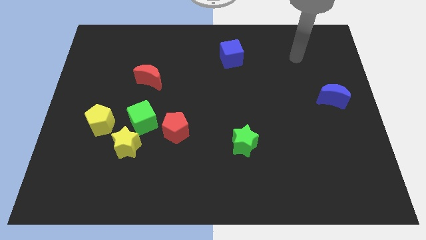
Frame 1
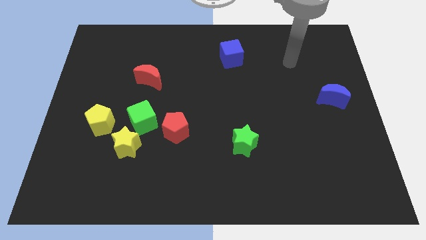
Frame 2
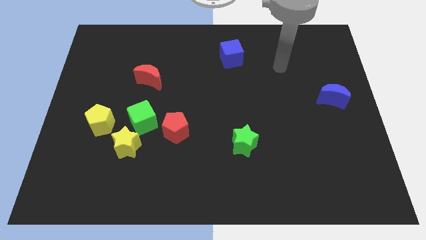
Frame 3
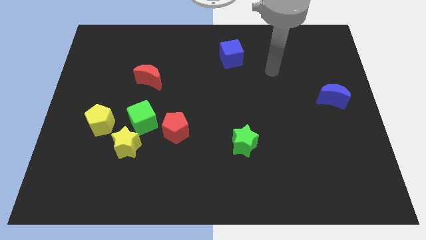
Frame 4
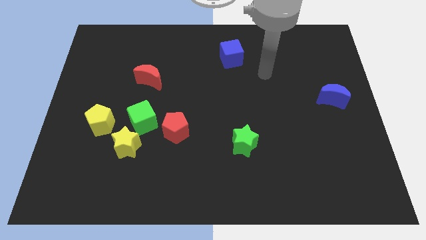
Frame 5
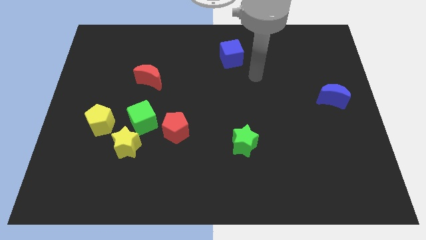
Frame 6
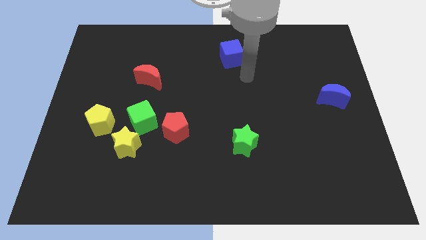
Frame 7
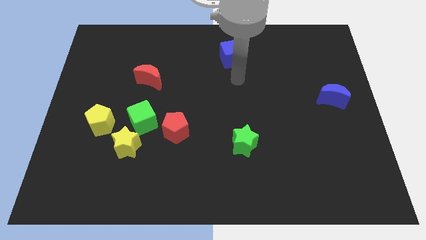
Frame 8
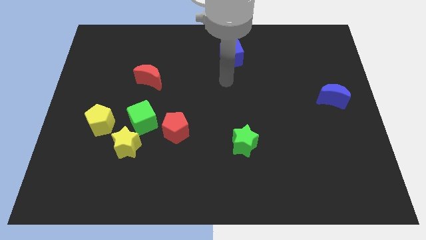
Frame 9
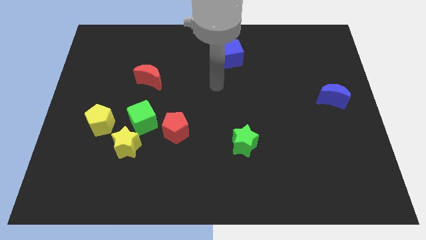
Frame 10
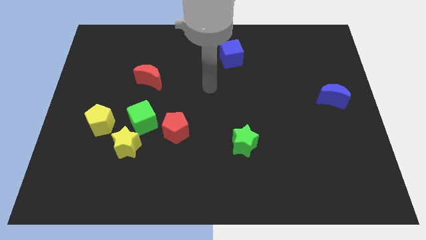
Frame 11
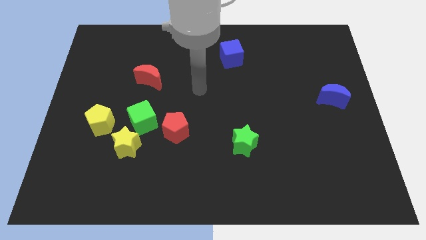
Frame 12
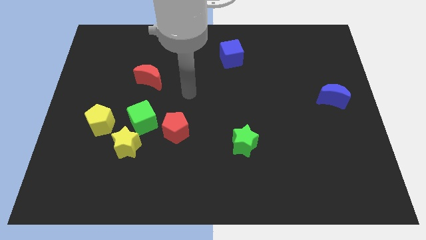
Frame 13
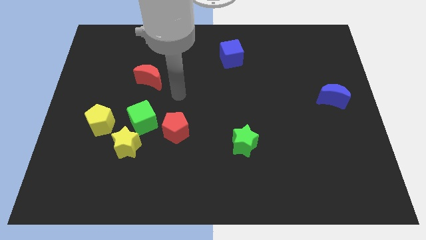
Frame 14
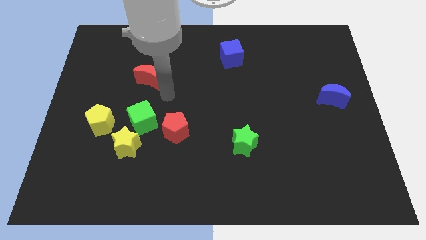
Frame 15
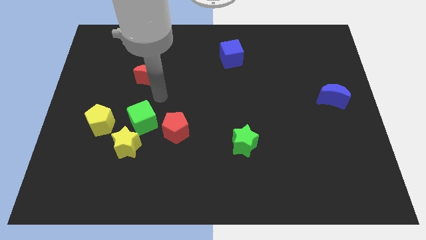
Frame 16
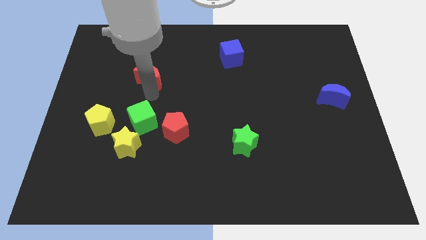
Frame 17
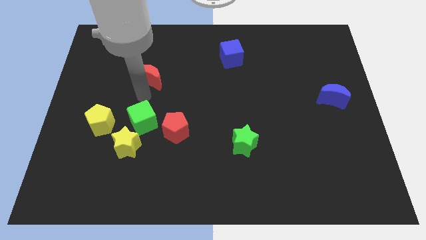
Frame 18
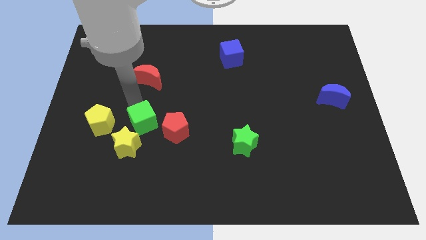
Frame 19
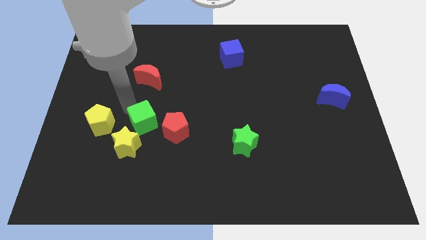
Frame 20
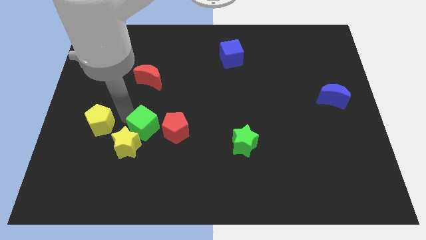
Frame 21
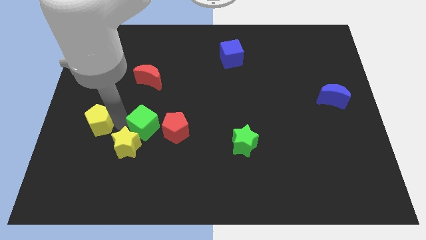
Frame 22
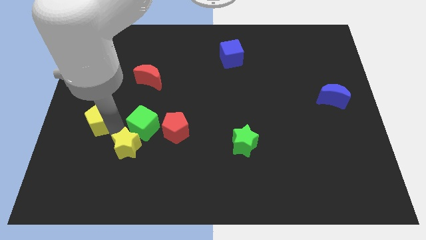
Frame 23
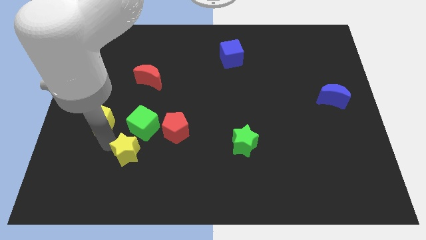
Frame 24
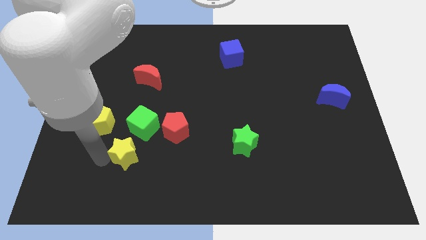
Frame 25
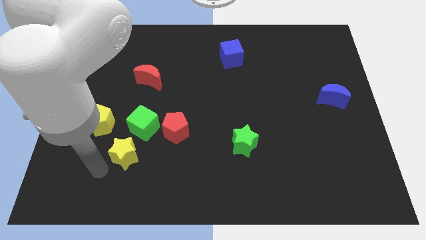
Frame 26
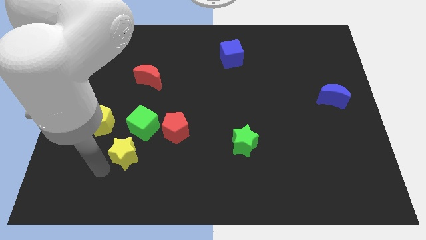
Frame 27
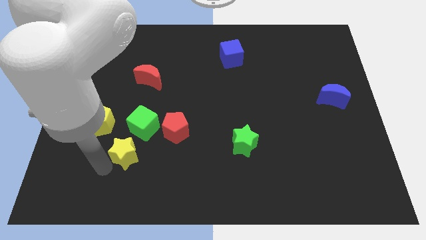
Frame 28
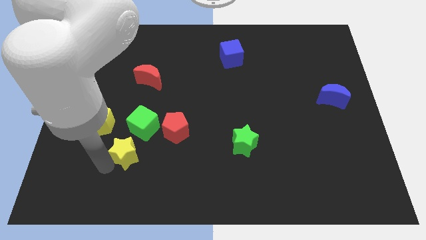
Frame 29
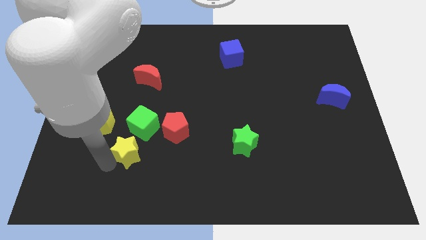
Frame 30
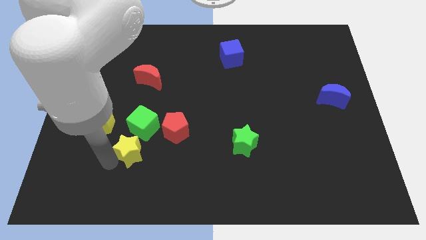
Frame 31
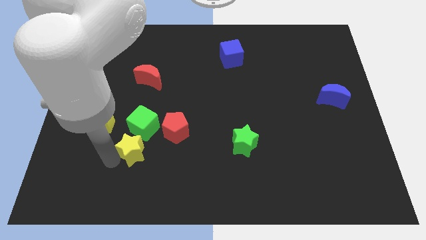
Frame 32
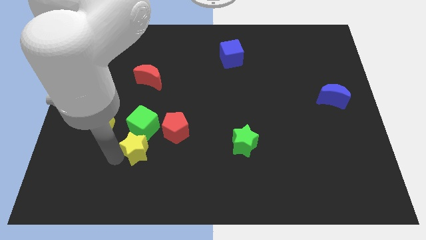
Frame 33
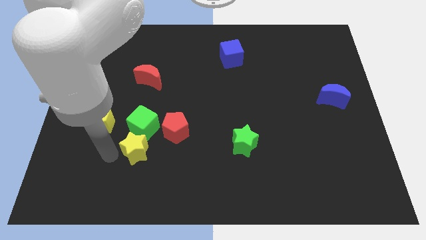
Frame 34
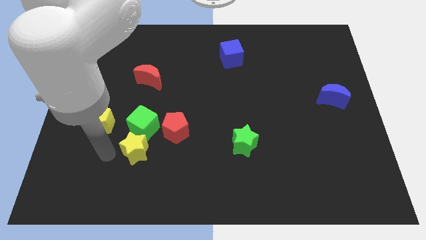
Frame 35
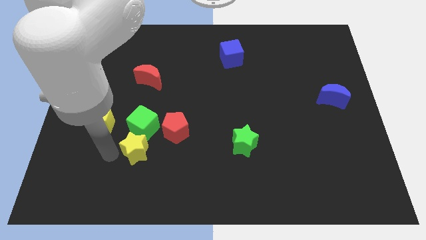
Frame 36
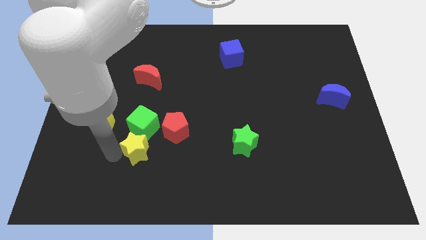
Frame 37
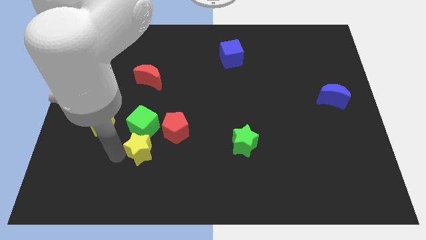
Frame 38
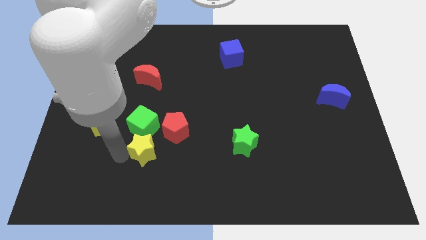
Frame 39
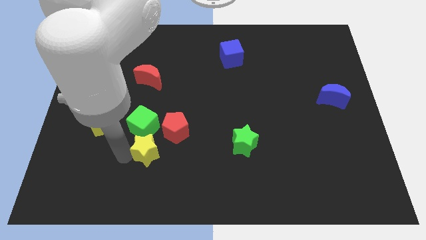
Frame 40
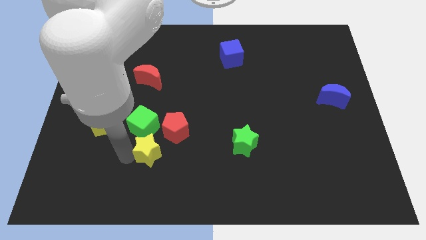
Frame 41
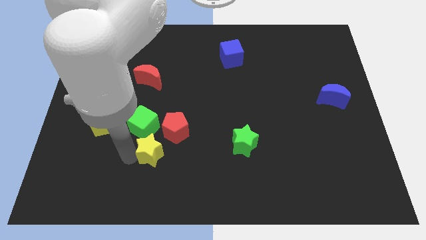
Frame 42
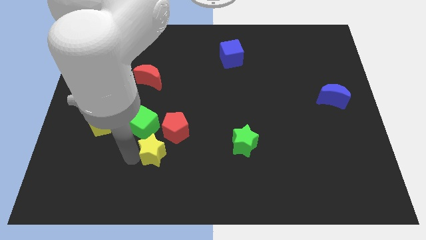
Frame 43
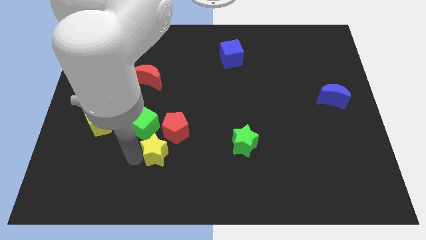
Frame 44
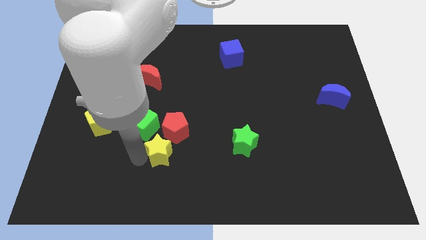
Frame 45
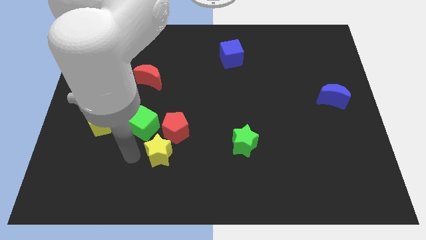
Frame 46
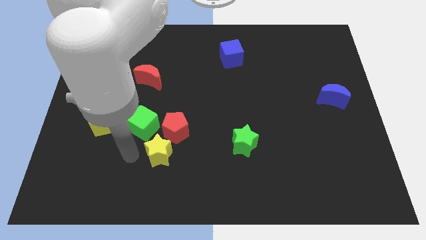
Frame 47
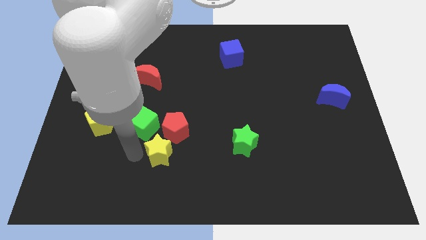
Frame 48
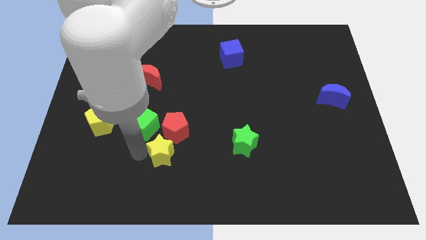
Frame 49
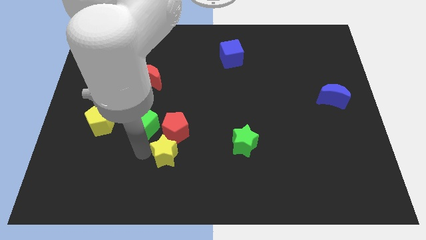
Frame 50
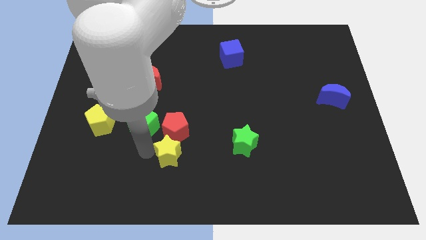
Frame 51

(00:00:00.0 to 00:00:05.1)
slide the yellow star diagonally down and to the right of the red pentagon

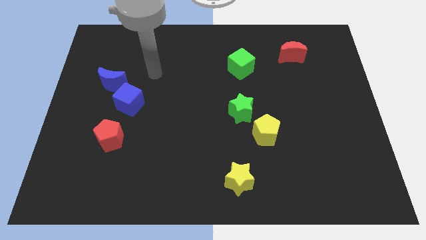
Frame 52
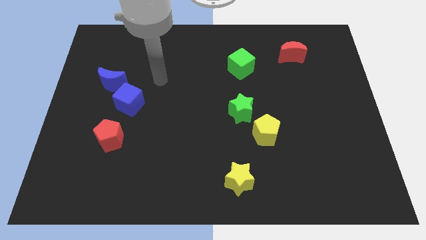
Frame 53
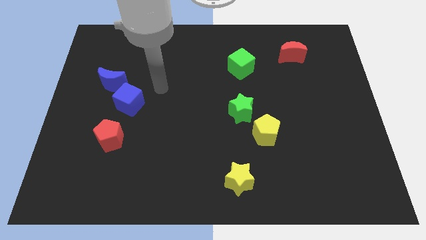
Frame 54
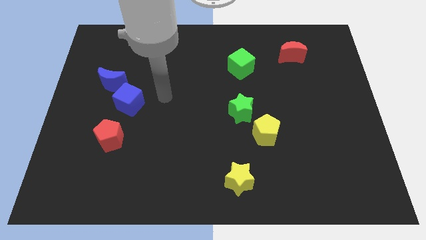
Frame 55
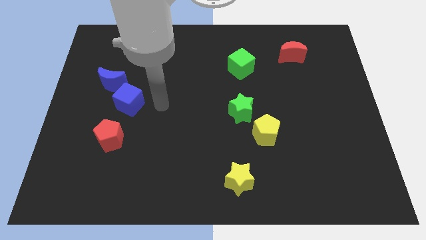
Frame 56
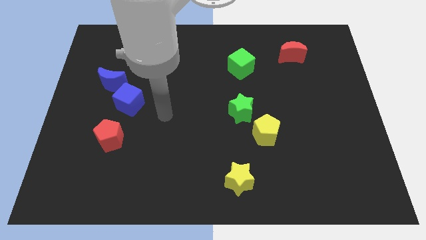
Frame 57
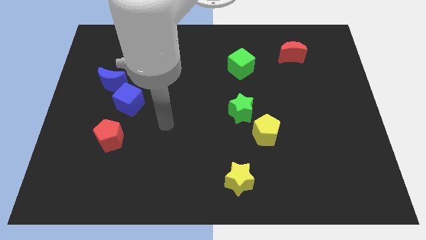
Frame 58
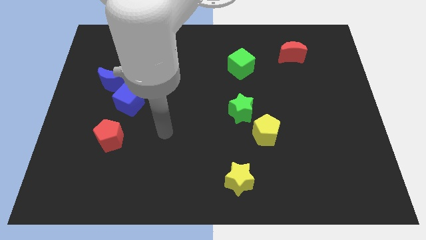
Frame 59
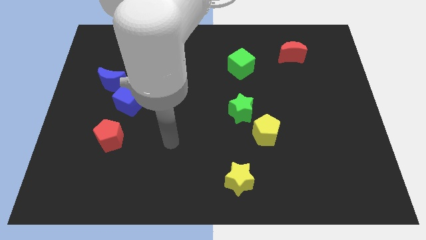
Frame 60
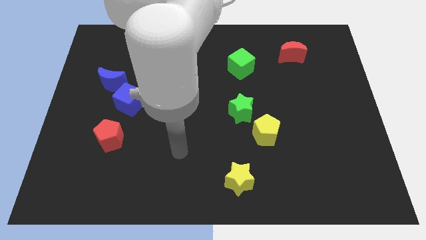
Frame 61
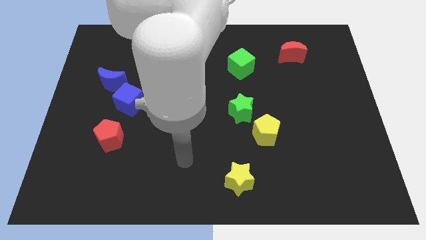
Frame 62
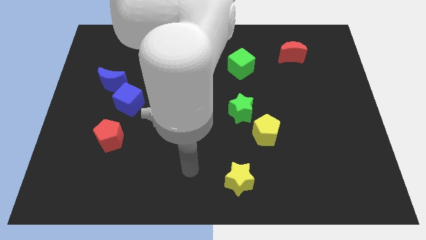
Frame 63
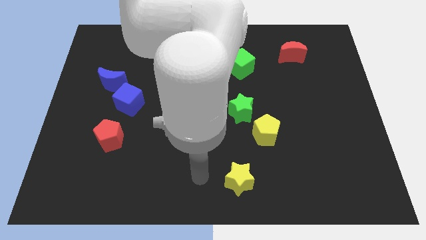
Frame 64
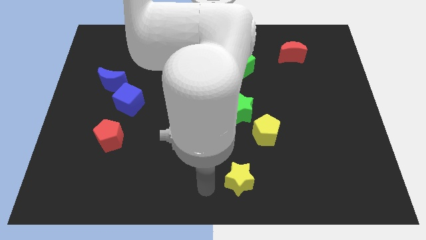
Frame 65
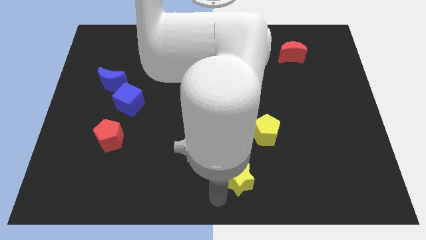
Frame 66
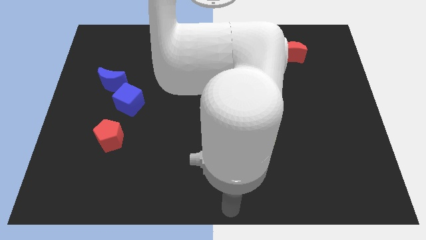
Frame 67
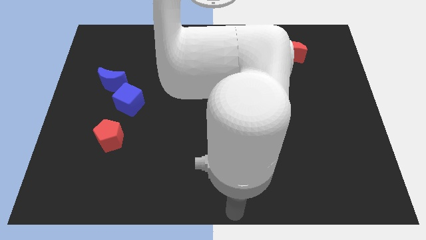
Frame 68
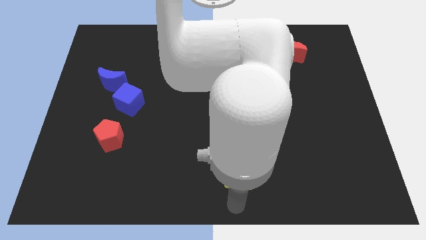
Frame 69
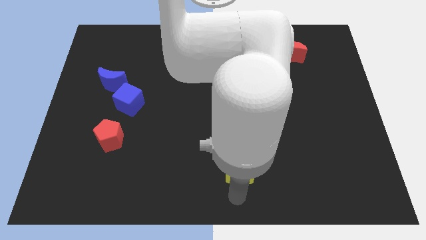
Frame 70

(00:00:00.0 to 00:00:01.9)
put the yellow star to the bottom of the green star
